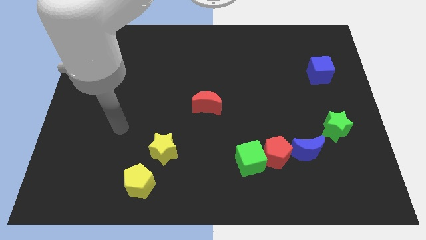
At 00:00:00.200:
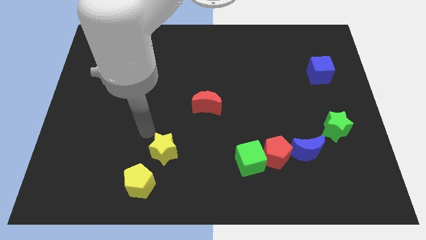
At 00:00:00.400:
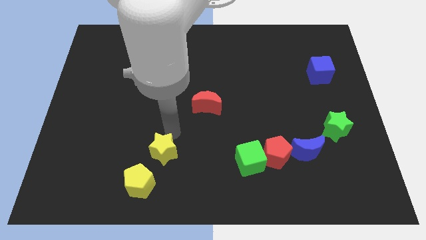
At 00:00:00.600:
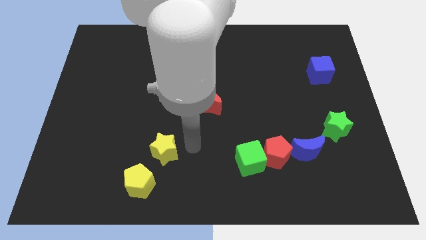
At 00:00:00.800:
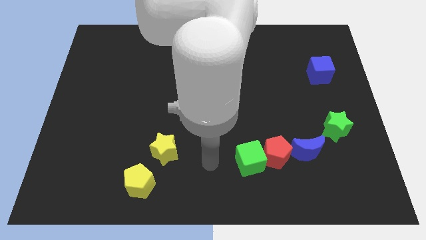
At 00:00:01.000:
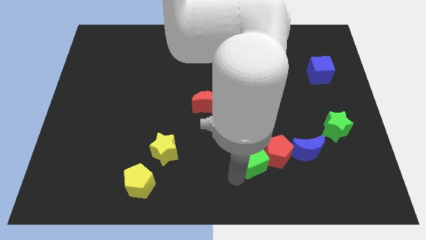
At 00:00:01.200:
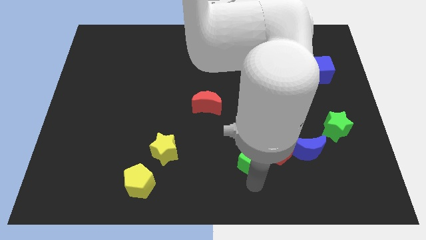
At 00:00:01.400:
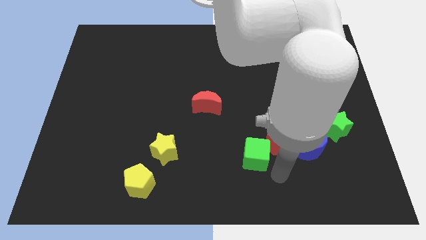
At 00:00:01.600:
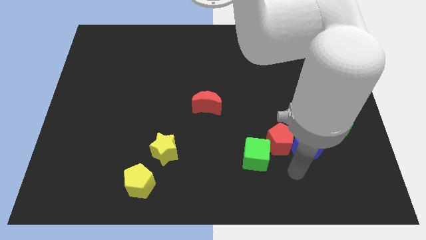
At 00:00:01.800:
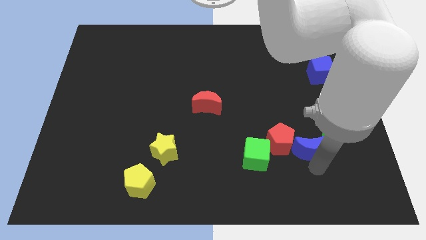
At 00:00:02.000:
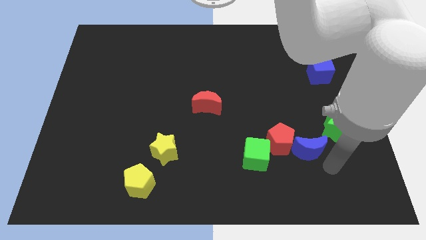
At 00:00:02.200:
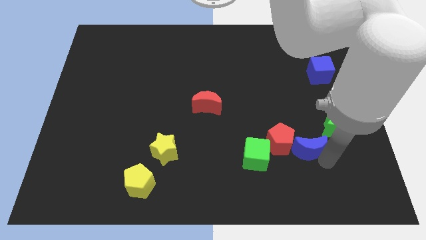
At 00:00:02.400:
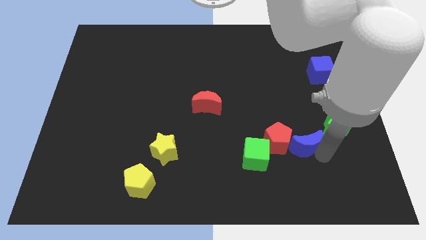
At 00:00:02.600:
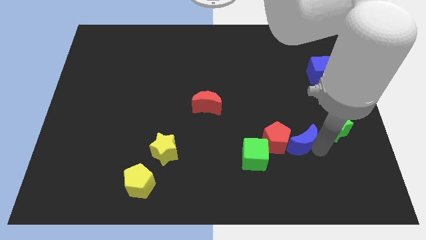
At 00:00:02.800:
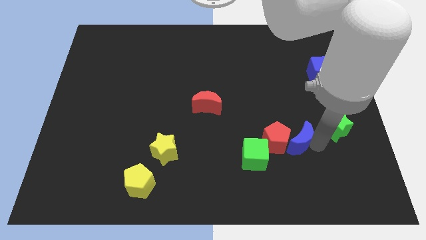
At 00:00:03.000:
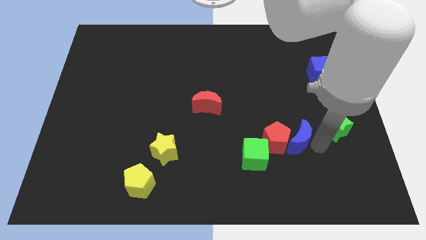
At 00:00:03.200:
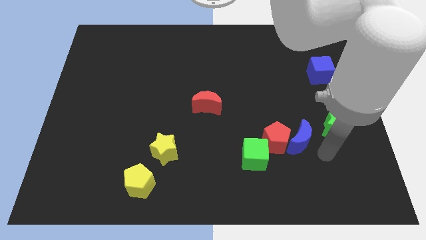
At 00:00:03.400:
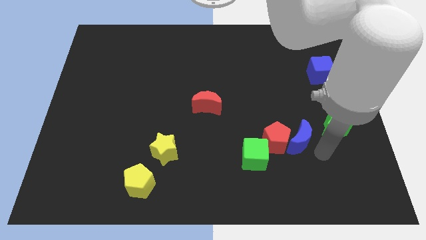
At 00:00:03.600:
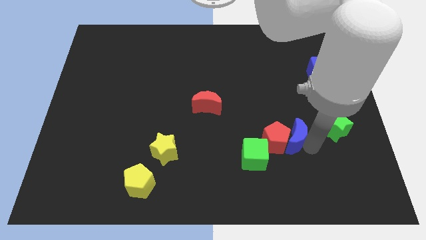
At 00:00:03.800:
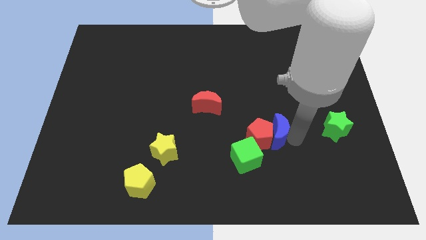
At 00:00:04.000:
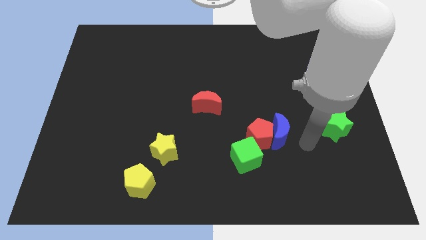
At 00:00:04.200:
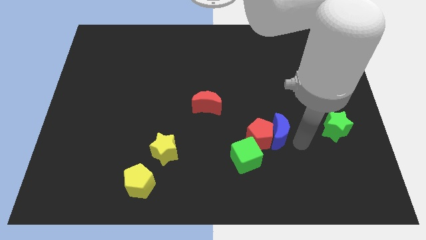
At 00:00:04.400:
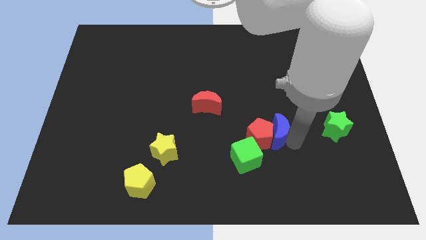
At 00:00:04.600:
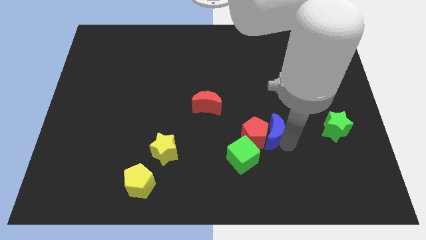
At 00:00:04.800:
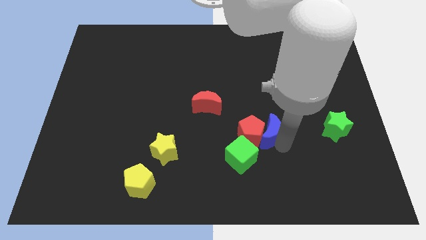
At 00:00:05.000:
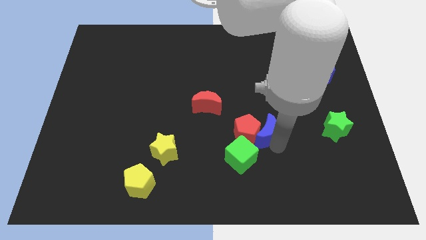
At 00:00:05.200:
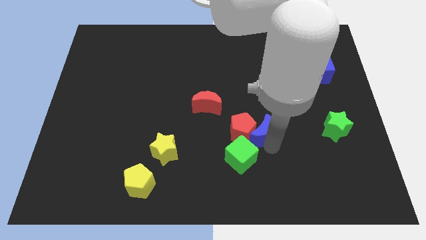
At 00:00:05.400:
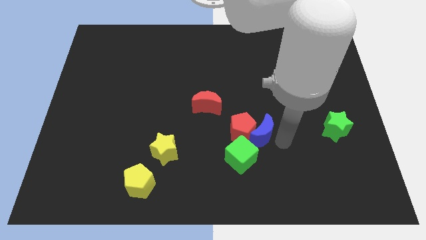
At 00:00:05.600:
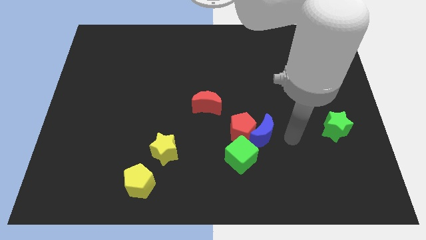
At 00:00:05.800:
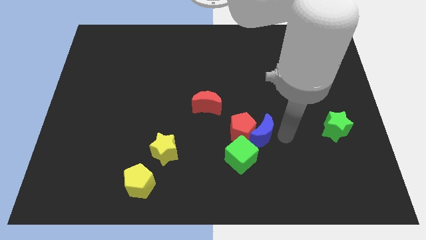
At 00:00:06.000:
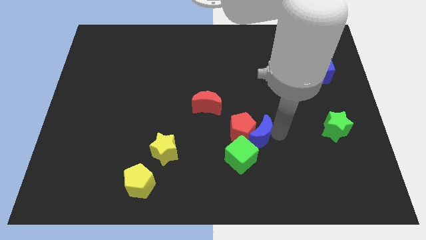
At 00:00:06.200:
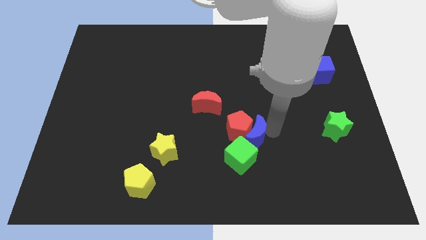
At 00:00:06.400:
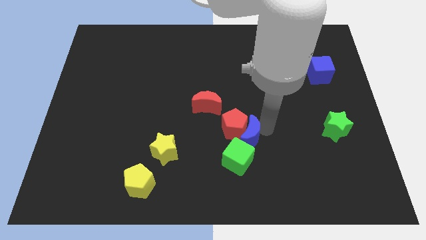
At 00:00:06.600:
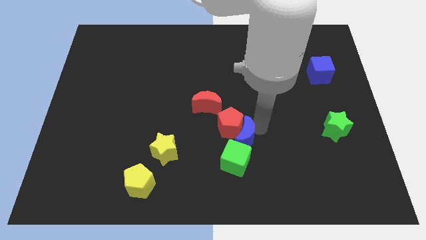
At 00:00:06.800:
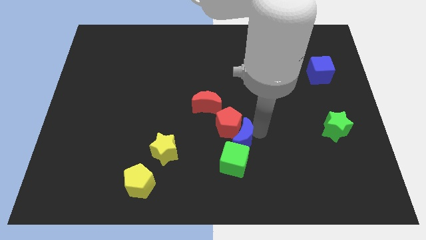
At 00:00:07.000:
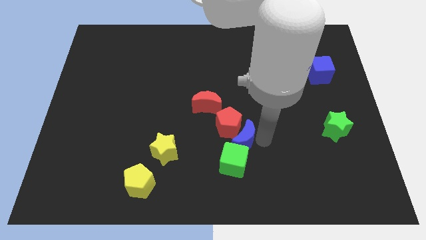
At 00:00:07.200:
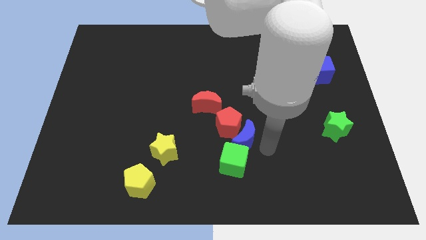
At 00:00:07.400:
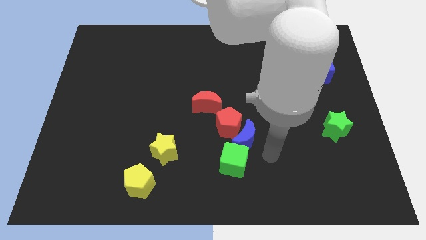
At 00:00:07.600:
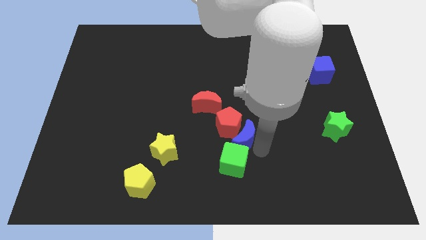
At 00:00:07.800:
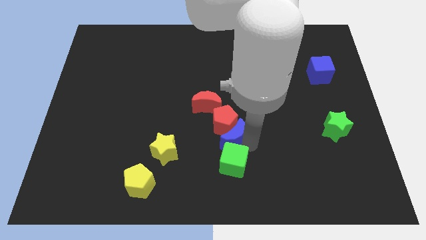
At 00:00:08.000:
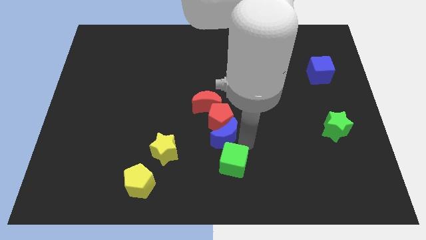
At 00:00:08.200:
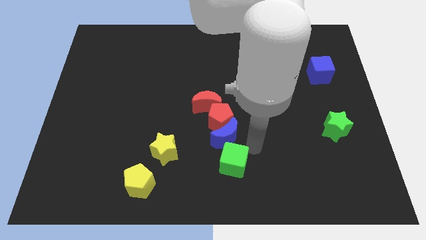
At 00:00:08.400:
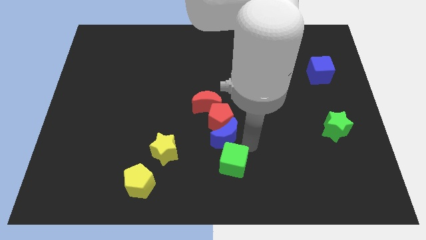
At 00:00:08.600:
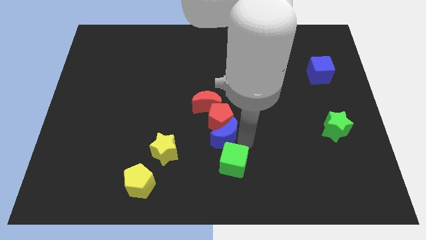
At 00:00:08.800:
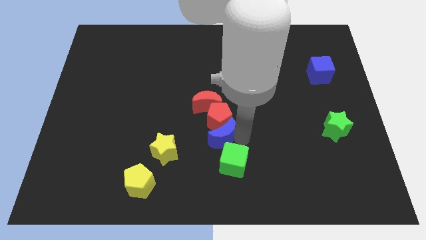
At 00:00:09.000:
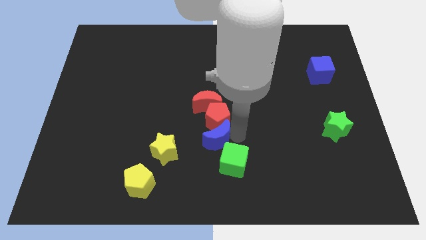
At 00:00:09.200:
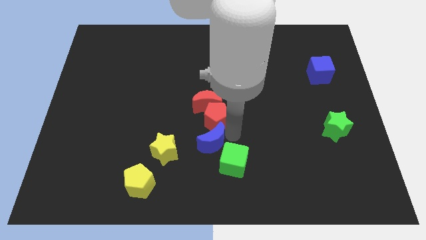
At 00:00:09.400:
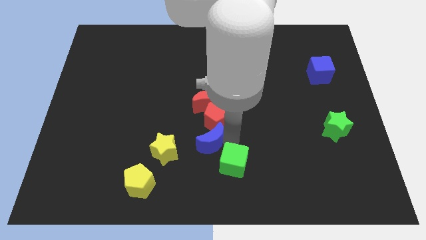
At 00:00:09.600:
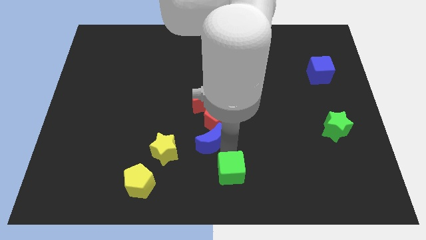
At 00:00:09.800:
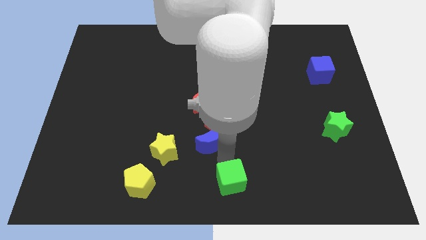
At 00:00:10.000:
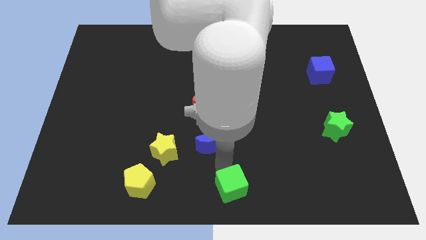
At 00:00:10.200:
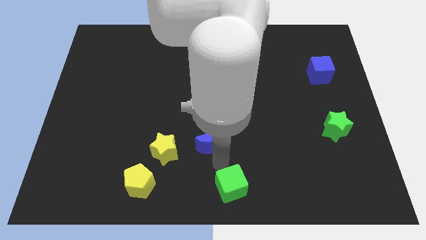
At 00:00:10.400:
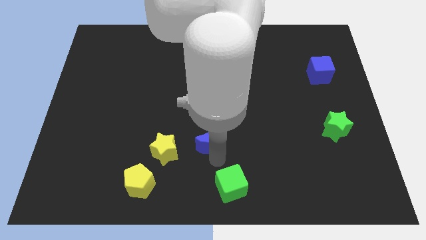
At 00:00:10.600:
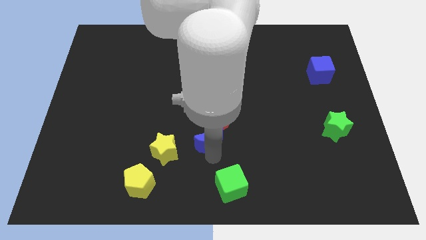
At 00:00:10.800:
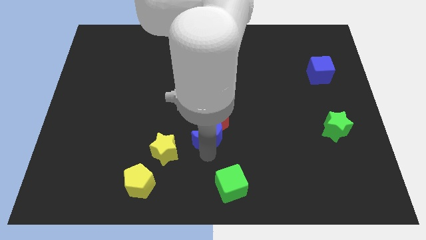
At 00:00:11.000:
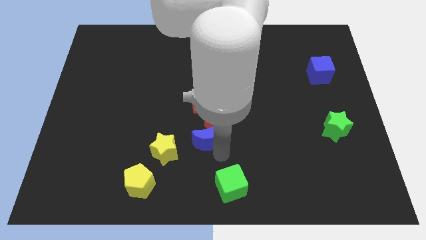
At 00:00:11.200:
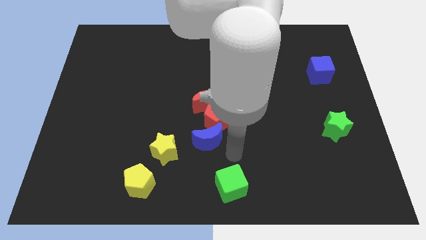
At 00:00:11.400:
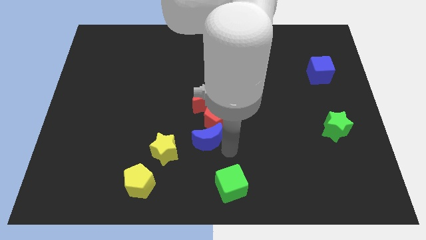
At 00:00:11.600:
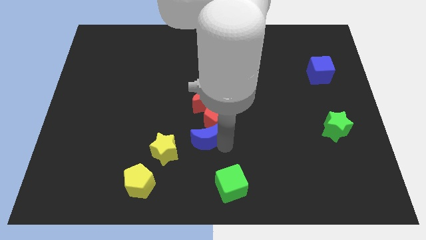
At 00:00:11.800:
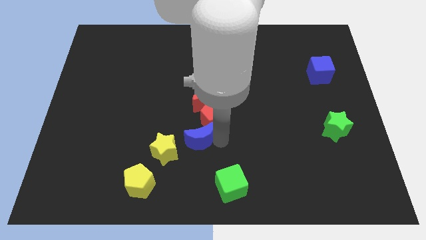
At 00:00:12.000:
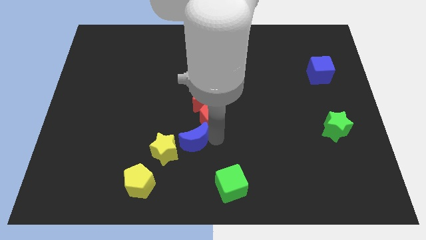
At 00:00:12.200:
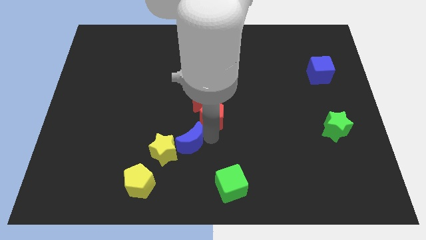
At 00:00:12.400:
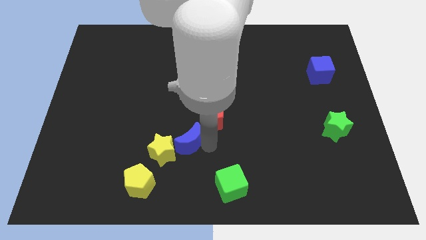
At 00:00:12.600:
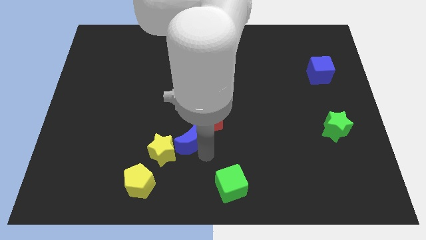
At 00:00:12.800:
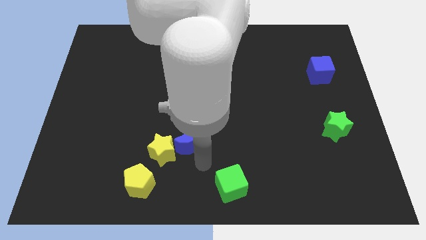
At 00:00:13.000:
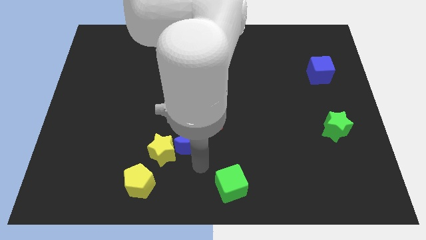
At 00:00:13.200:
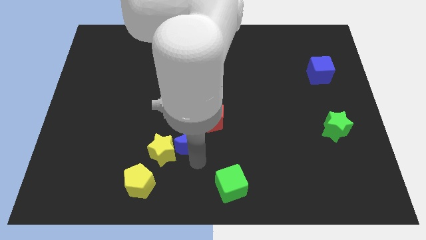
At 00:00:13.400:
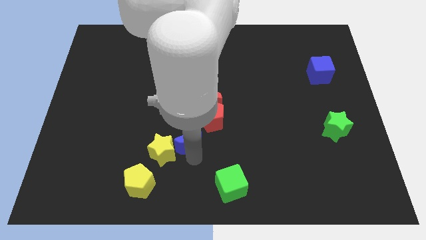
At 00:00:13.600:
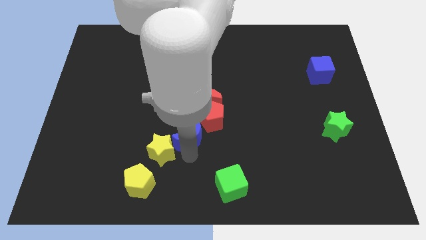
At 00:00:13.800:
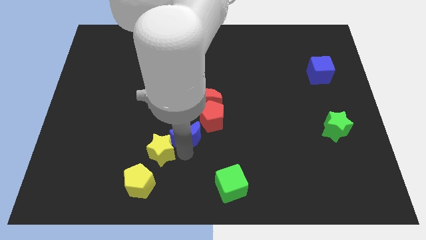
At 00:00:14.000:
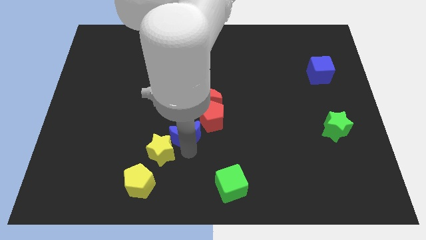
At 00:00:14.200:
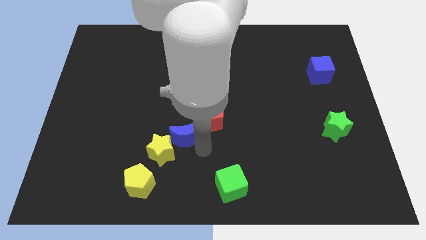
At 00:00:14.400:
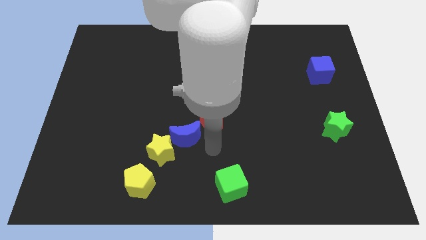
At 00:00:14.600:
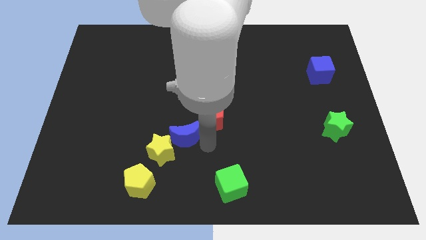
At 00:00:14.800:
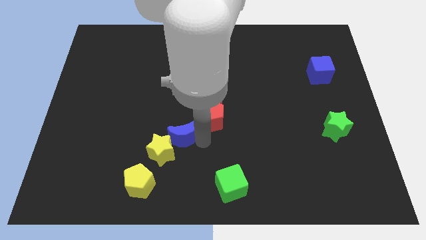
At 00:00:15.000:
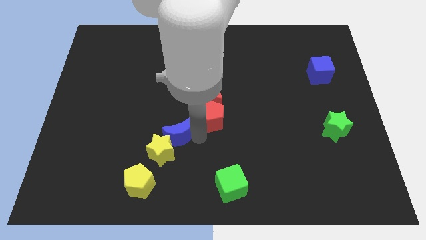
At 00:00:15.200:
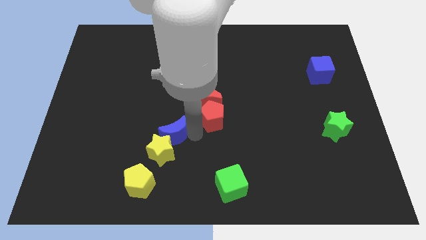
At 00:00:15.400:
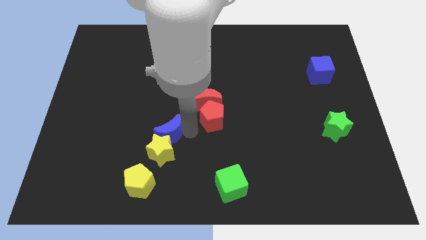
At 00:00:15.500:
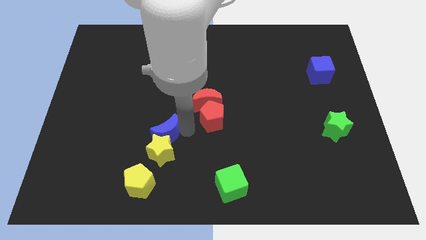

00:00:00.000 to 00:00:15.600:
slide the blue moon above the yellow pentagon
